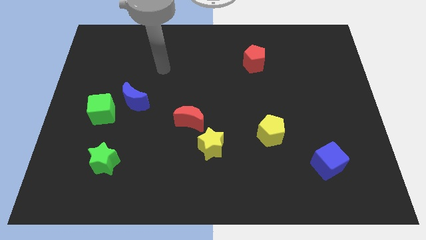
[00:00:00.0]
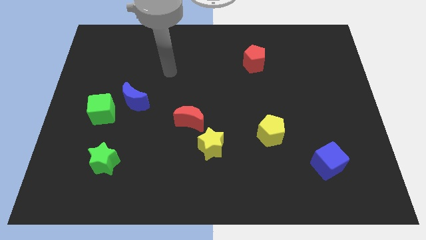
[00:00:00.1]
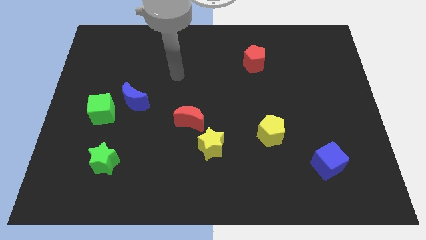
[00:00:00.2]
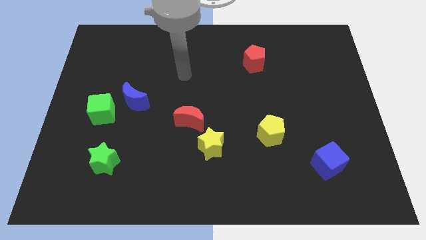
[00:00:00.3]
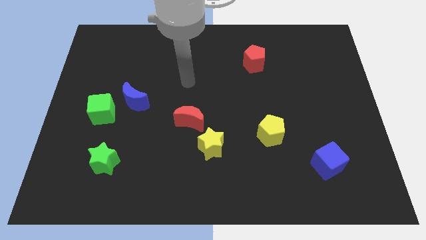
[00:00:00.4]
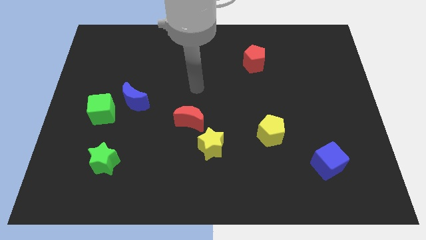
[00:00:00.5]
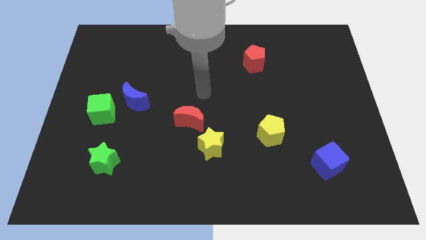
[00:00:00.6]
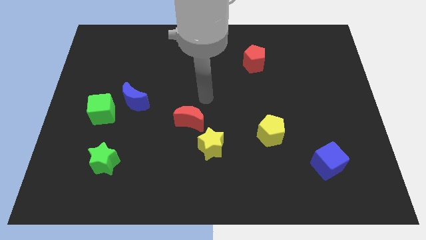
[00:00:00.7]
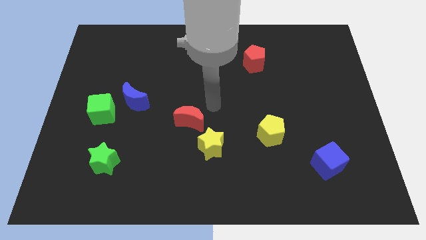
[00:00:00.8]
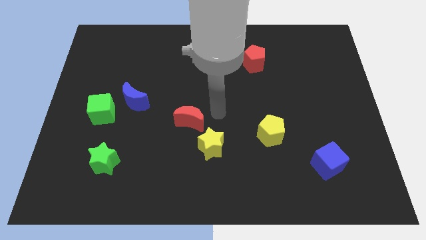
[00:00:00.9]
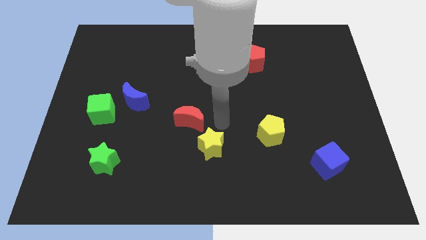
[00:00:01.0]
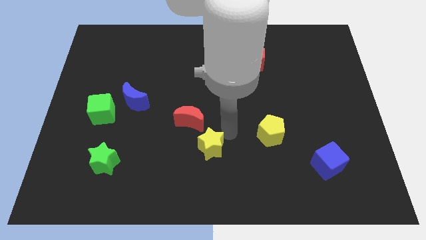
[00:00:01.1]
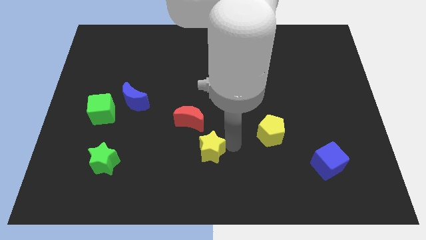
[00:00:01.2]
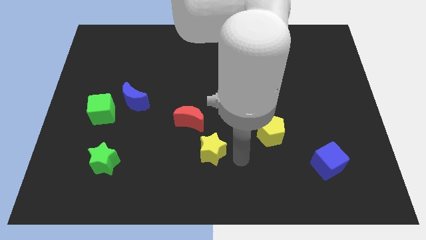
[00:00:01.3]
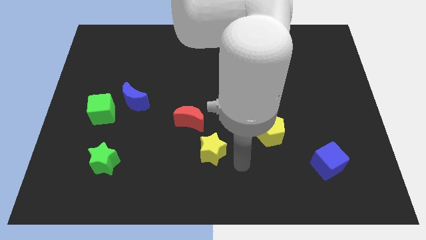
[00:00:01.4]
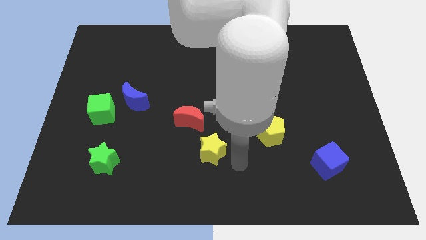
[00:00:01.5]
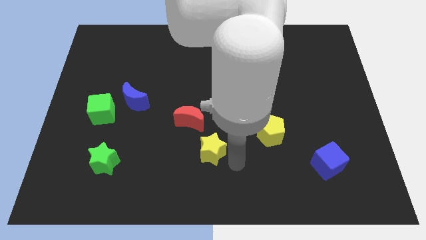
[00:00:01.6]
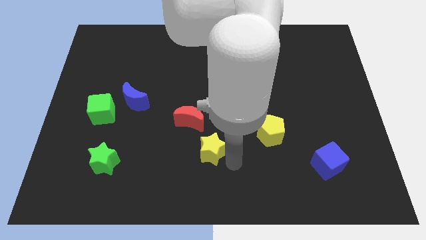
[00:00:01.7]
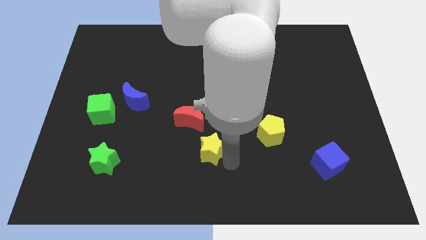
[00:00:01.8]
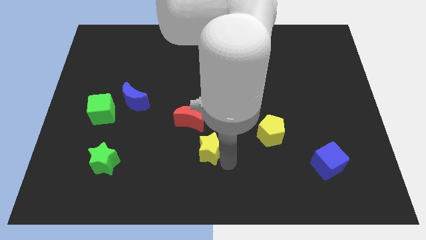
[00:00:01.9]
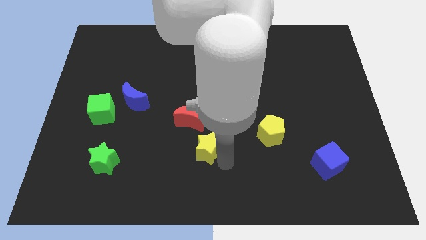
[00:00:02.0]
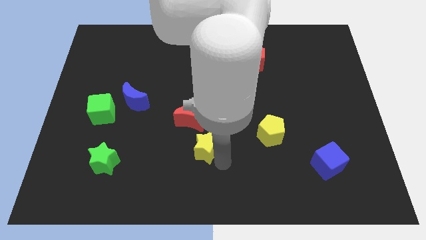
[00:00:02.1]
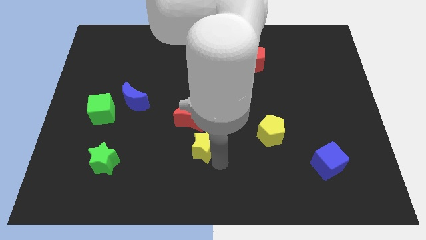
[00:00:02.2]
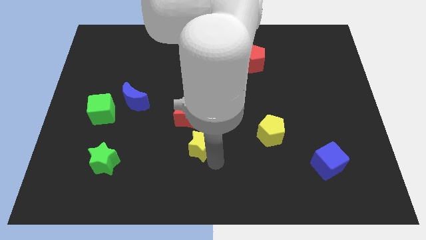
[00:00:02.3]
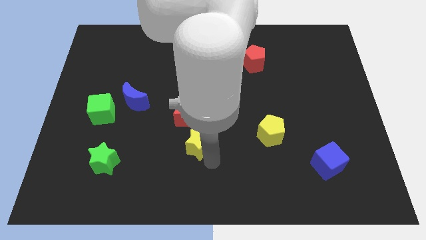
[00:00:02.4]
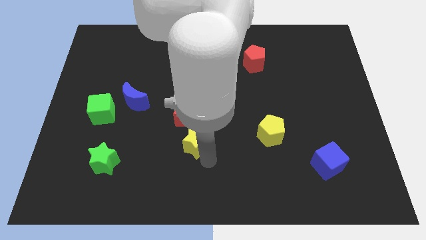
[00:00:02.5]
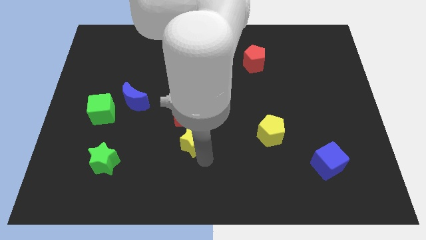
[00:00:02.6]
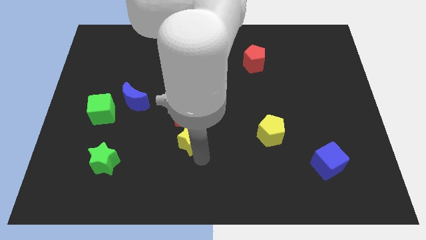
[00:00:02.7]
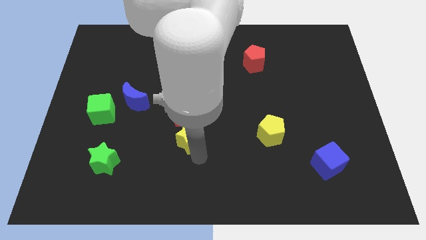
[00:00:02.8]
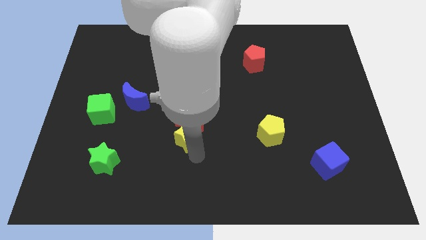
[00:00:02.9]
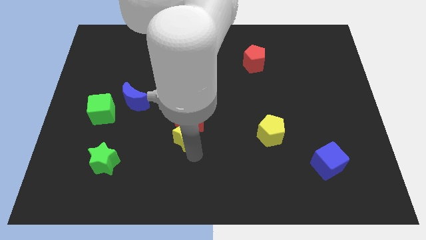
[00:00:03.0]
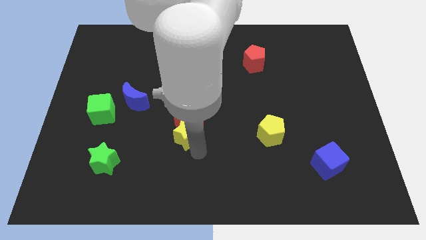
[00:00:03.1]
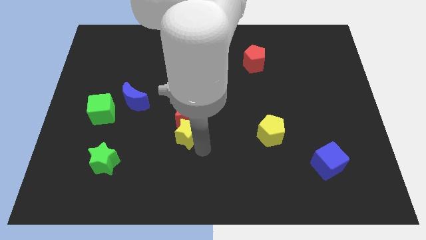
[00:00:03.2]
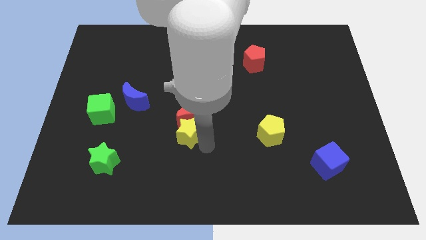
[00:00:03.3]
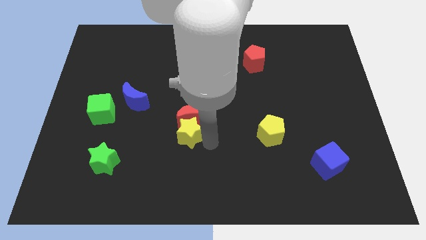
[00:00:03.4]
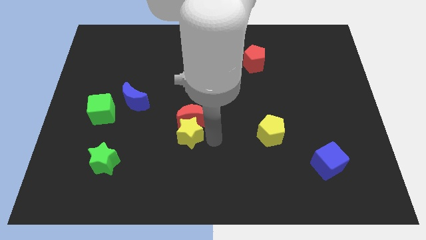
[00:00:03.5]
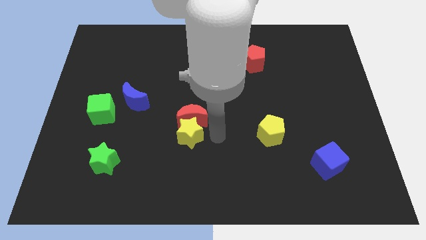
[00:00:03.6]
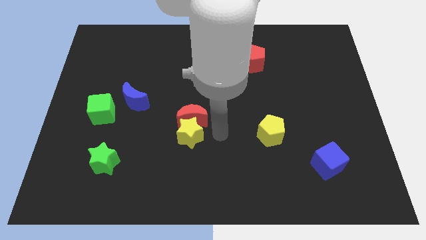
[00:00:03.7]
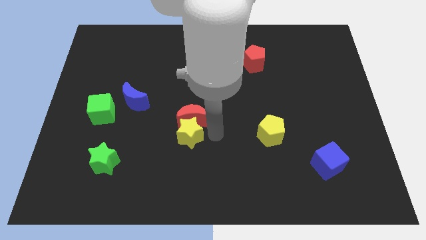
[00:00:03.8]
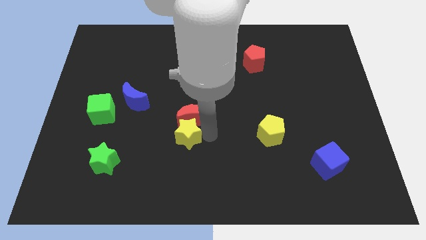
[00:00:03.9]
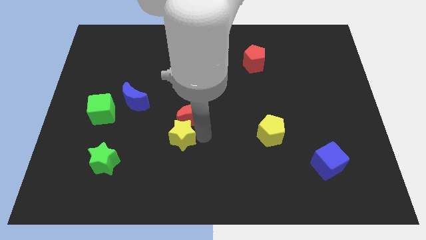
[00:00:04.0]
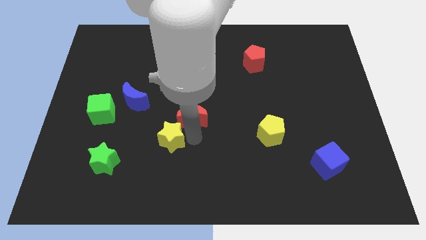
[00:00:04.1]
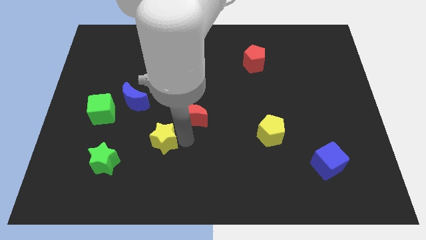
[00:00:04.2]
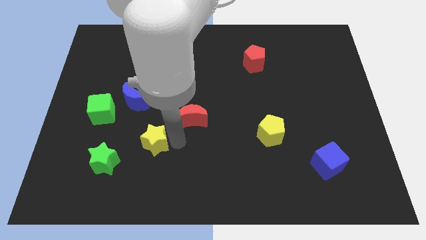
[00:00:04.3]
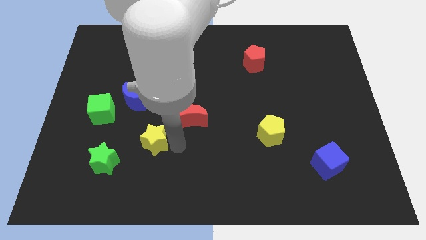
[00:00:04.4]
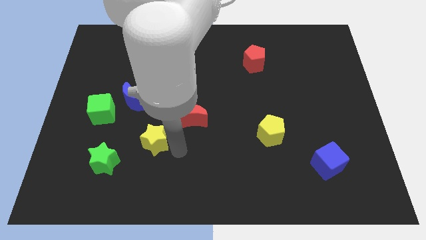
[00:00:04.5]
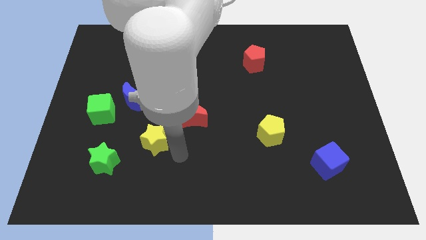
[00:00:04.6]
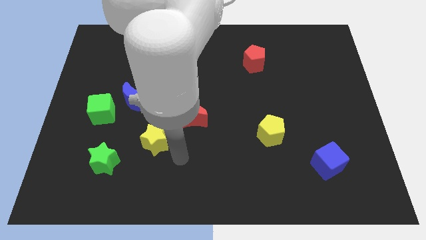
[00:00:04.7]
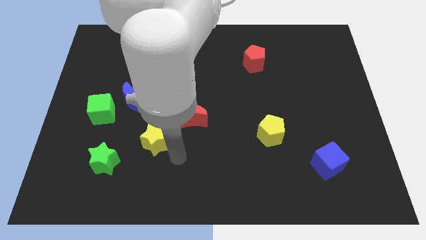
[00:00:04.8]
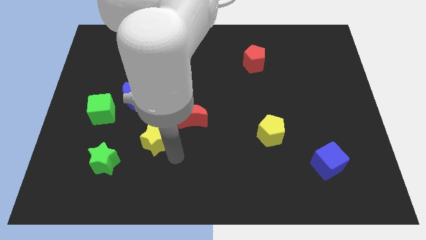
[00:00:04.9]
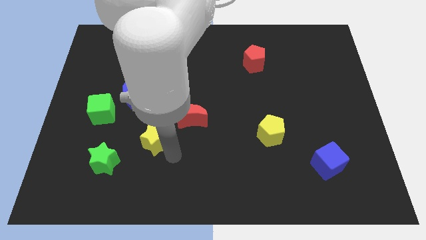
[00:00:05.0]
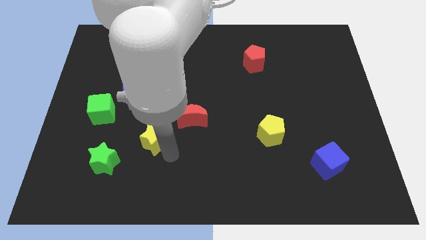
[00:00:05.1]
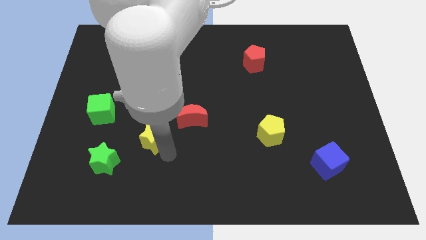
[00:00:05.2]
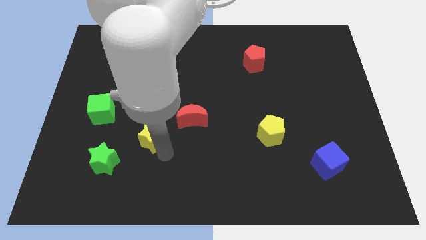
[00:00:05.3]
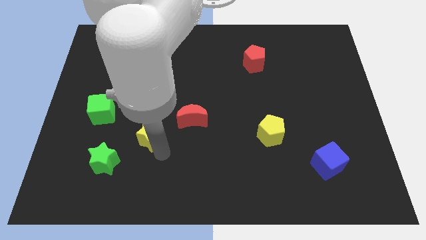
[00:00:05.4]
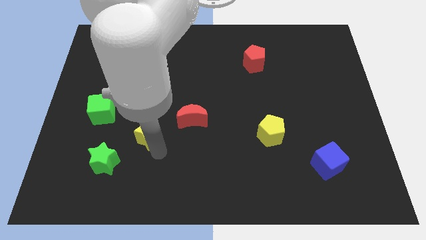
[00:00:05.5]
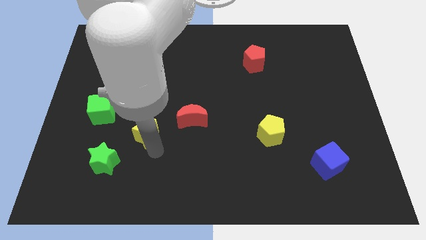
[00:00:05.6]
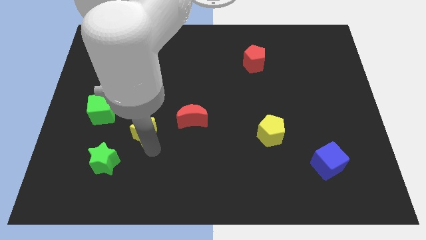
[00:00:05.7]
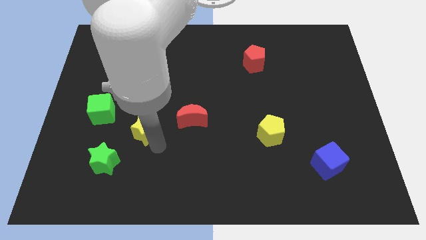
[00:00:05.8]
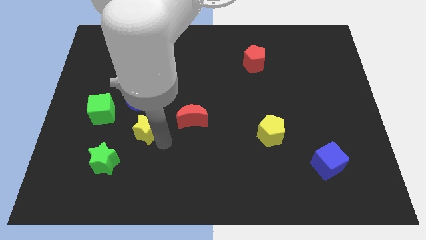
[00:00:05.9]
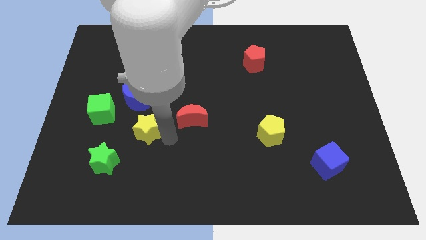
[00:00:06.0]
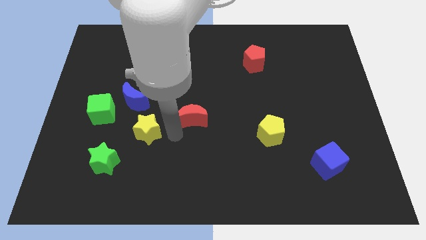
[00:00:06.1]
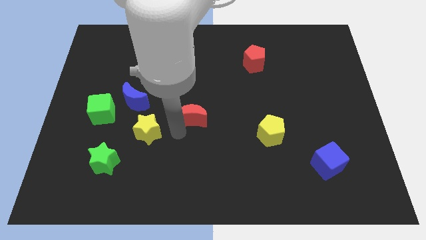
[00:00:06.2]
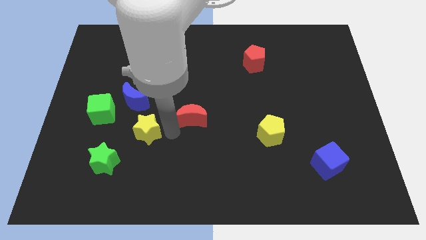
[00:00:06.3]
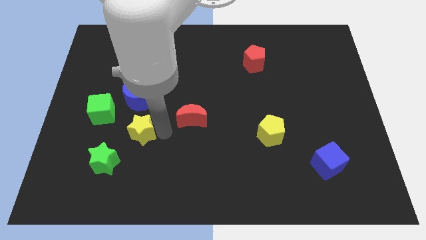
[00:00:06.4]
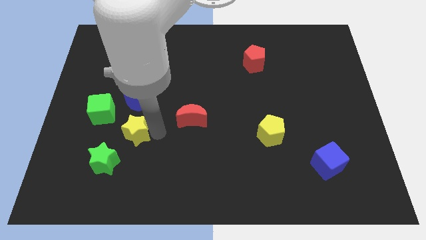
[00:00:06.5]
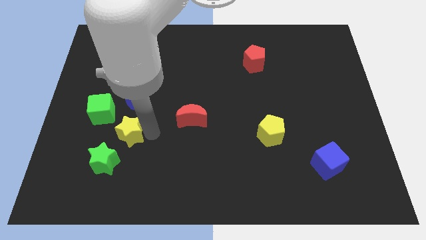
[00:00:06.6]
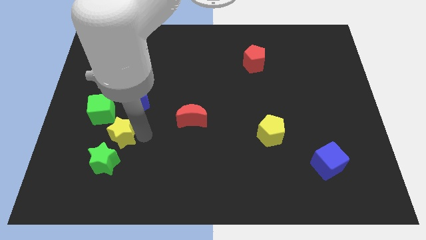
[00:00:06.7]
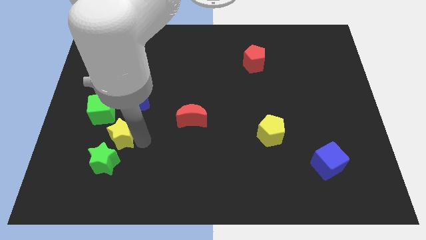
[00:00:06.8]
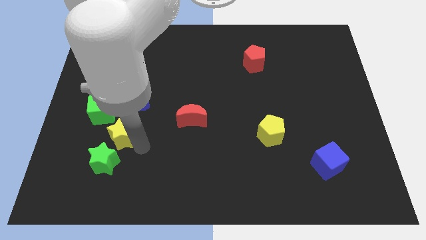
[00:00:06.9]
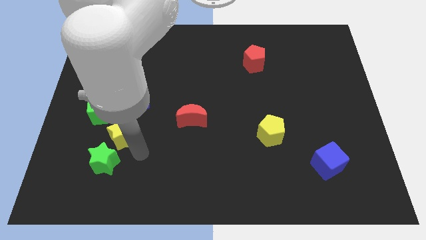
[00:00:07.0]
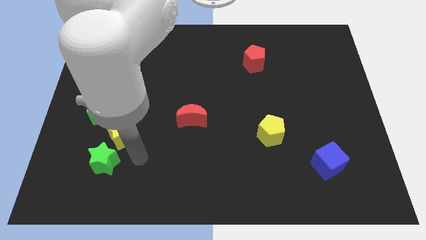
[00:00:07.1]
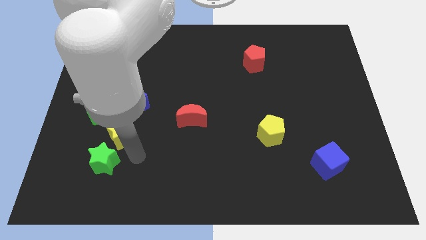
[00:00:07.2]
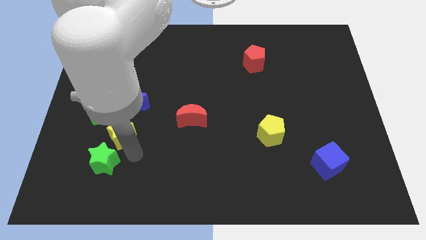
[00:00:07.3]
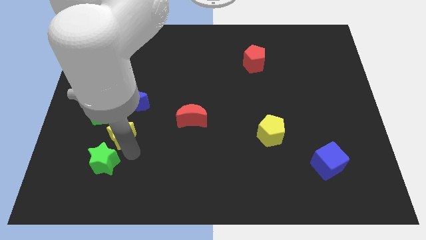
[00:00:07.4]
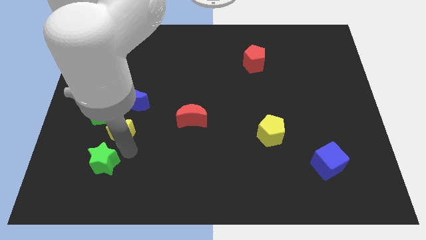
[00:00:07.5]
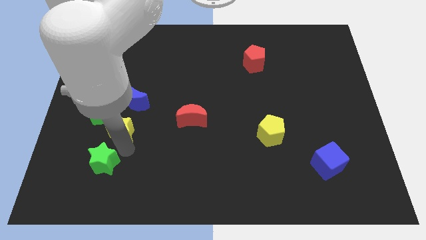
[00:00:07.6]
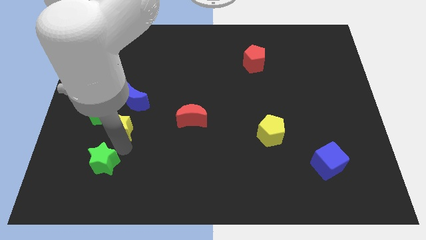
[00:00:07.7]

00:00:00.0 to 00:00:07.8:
push the yellow star diagonally down and to the left of the blue moon

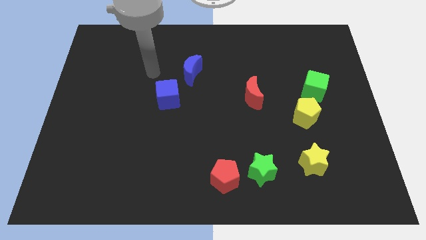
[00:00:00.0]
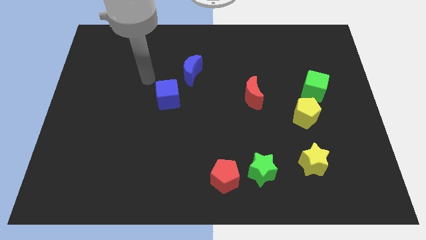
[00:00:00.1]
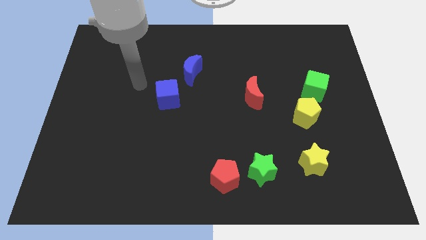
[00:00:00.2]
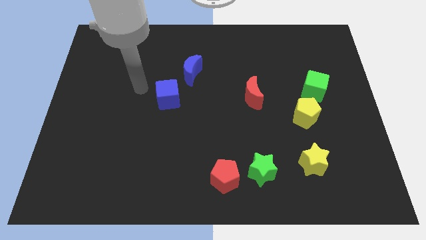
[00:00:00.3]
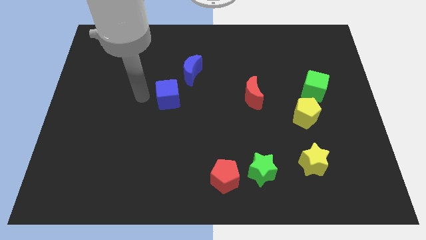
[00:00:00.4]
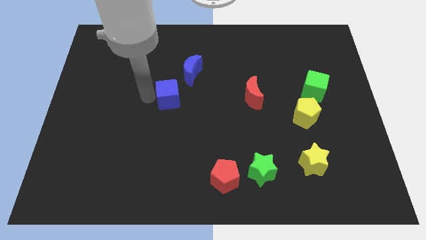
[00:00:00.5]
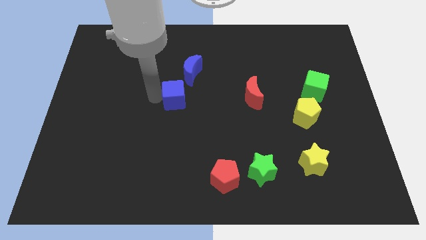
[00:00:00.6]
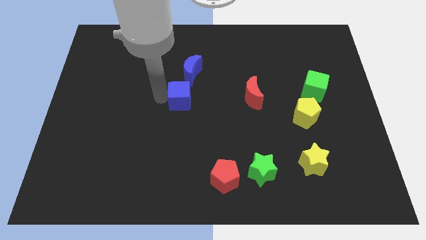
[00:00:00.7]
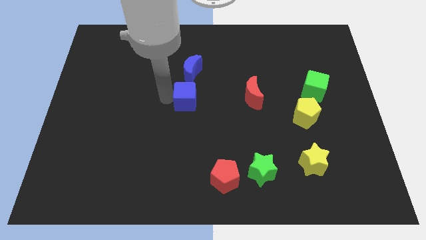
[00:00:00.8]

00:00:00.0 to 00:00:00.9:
move the blue cube to the left side of the red moon
